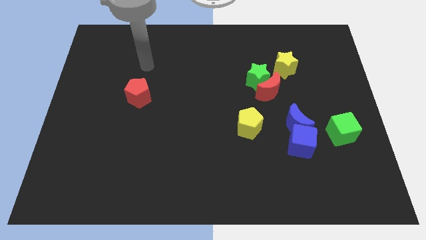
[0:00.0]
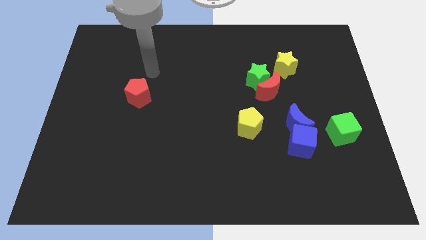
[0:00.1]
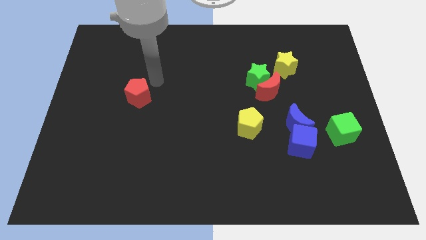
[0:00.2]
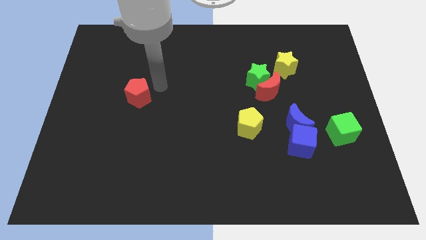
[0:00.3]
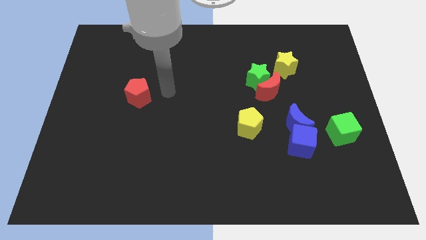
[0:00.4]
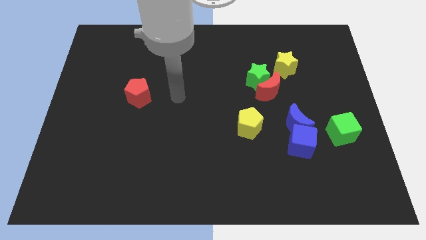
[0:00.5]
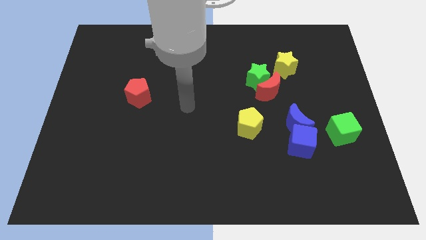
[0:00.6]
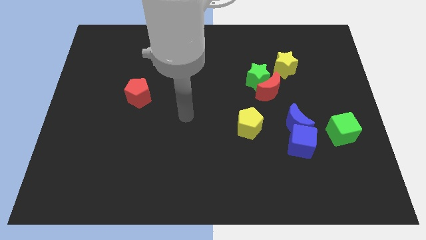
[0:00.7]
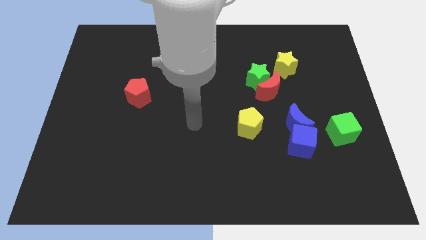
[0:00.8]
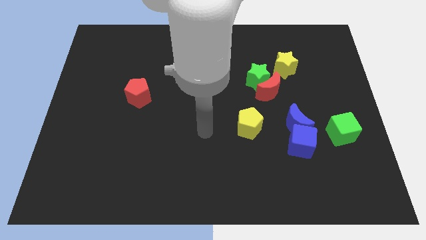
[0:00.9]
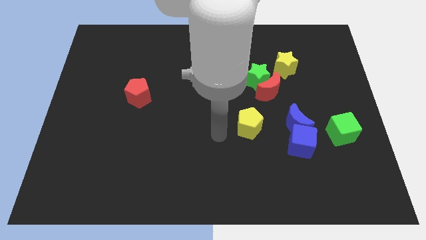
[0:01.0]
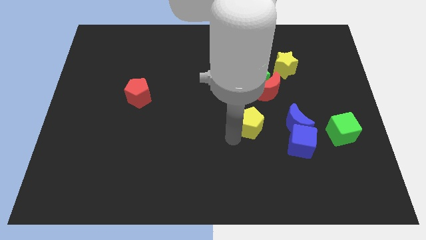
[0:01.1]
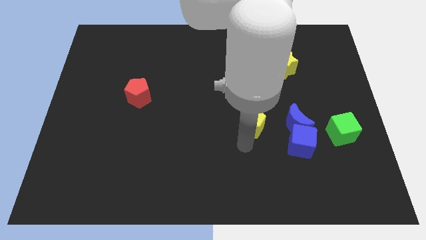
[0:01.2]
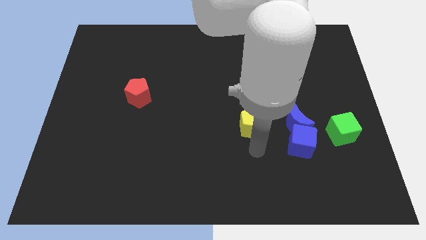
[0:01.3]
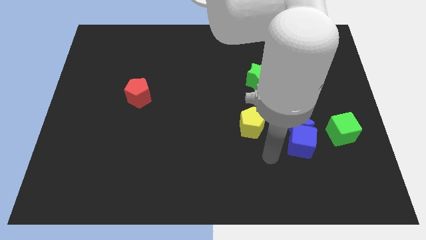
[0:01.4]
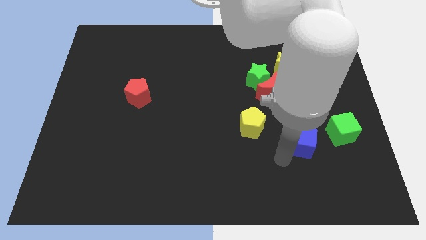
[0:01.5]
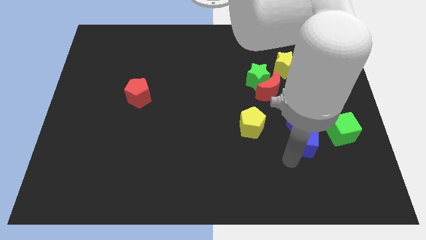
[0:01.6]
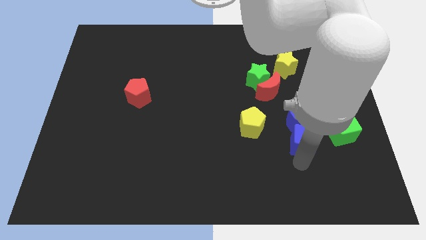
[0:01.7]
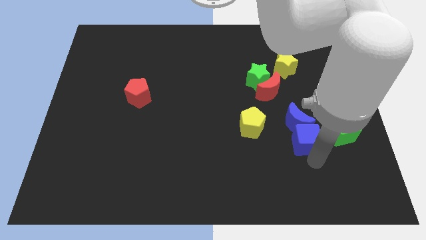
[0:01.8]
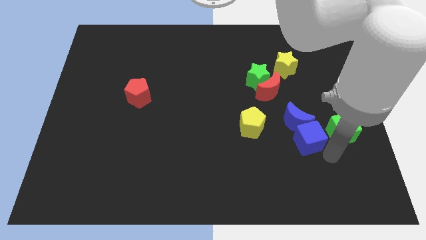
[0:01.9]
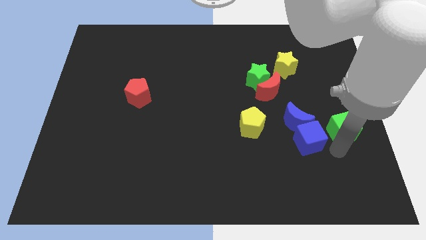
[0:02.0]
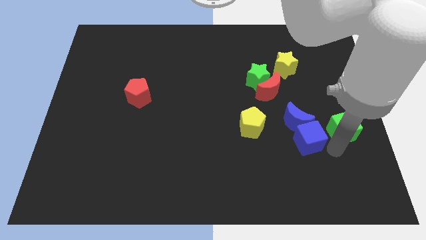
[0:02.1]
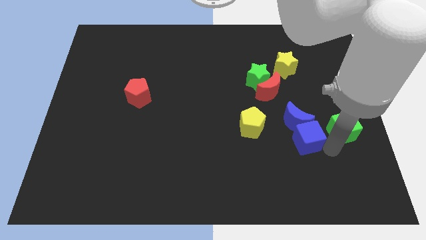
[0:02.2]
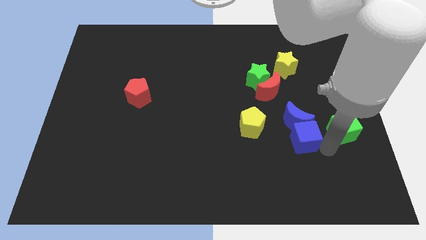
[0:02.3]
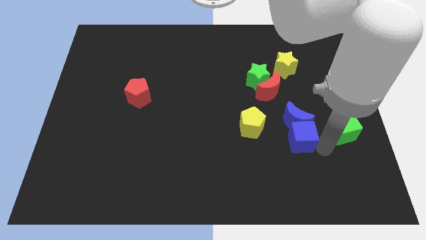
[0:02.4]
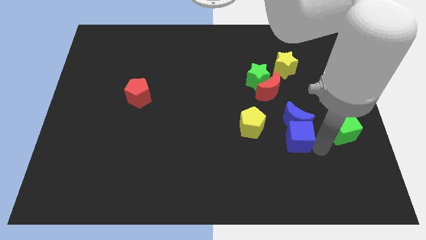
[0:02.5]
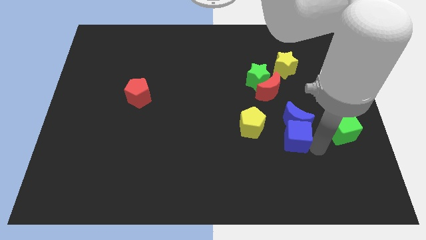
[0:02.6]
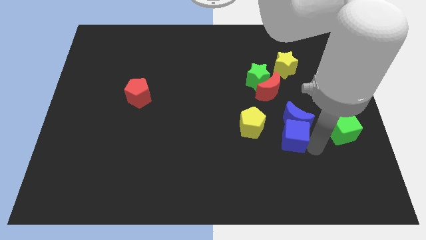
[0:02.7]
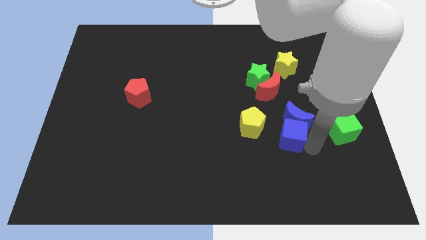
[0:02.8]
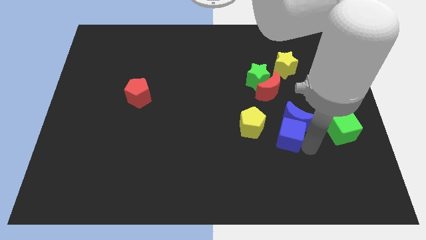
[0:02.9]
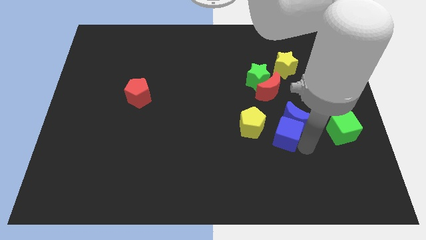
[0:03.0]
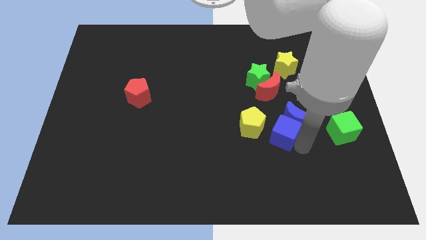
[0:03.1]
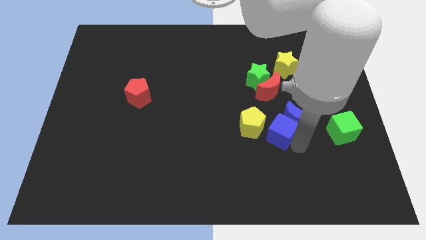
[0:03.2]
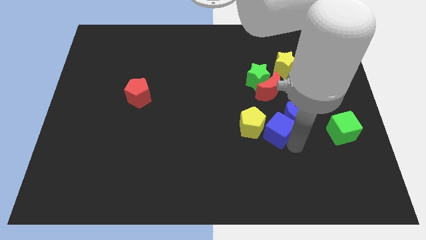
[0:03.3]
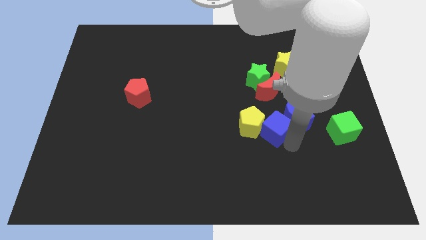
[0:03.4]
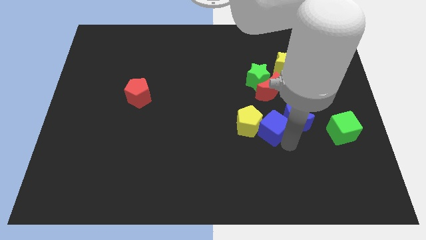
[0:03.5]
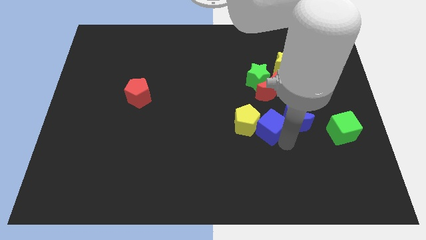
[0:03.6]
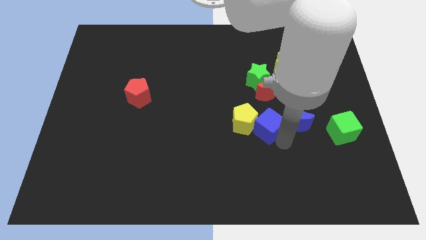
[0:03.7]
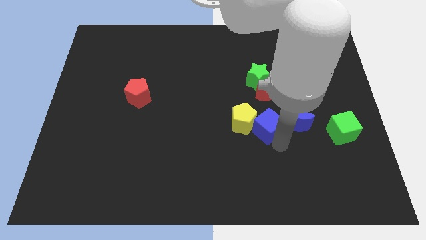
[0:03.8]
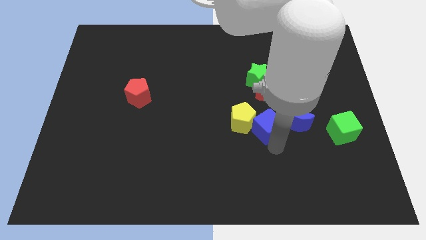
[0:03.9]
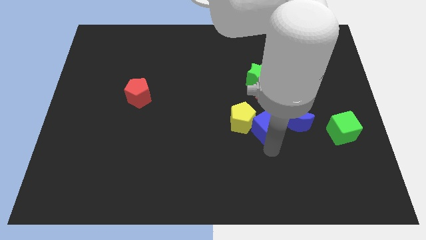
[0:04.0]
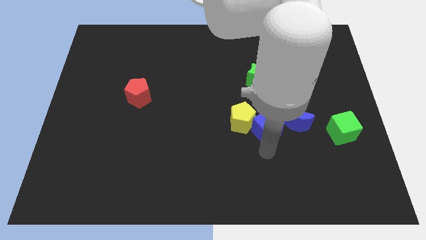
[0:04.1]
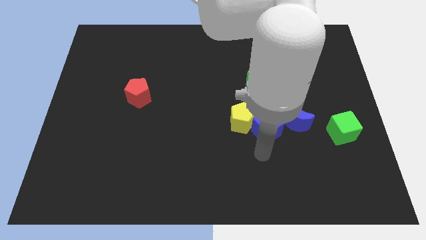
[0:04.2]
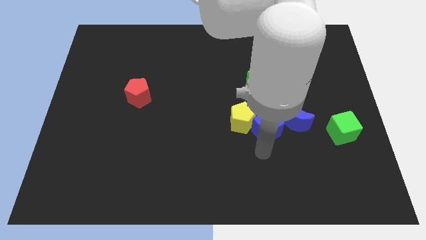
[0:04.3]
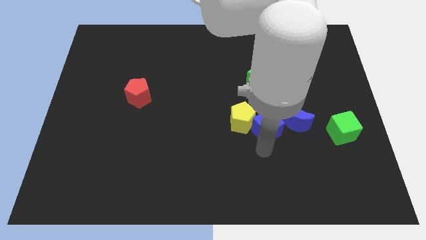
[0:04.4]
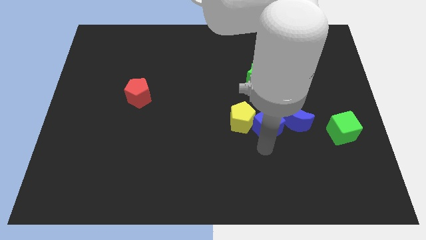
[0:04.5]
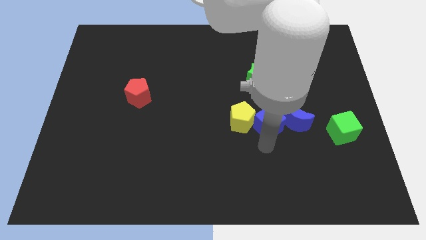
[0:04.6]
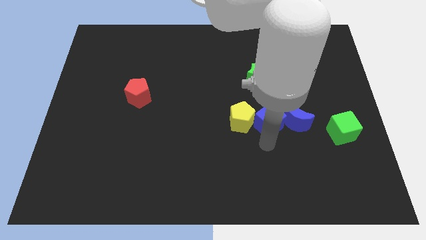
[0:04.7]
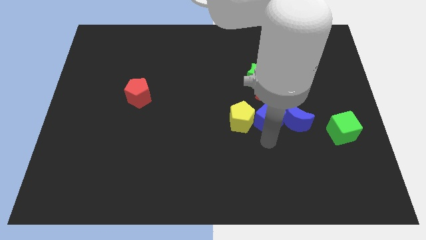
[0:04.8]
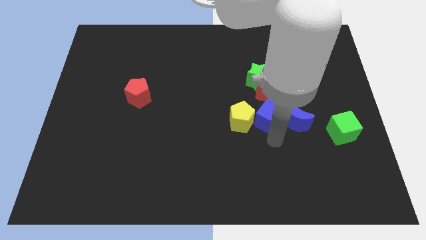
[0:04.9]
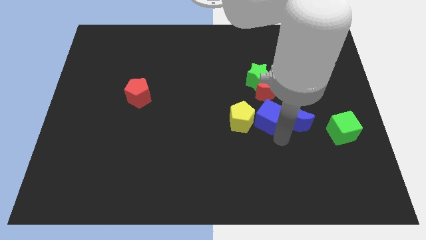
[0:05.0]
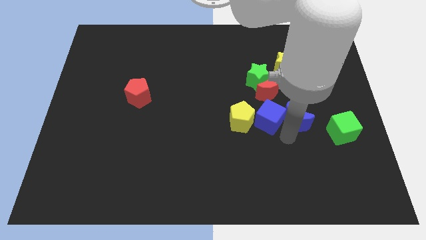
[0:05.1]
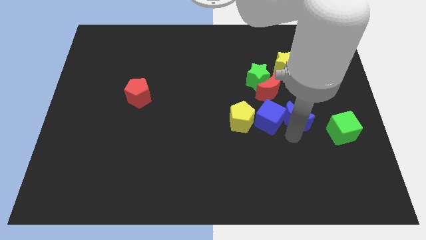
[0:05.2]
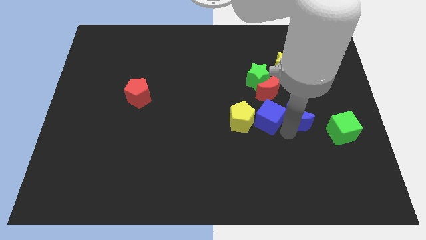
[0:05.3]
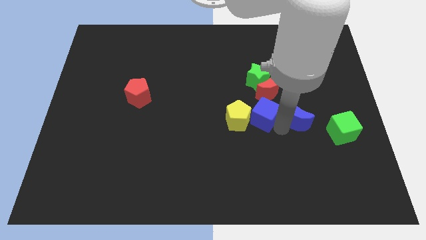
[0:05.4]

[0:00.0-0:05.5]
move the blue cube to the bottom left side of the red moon

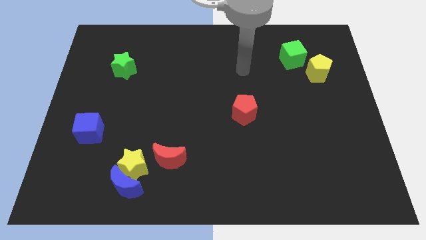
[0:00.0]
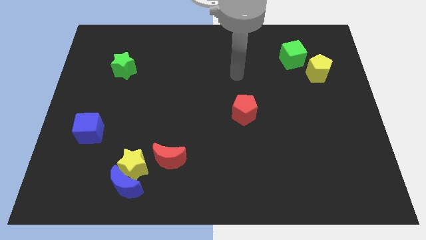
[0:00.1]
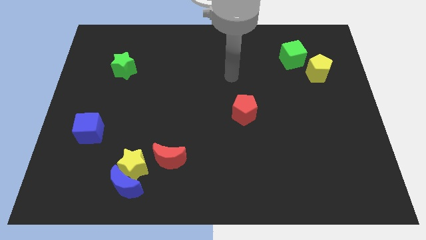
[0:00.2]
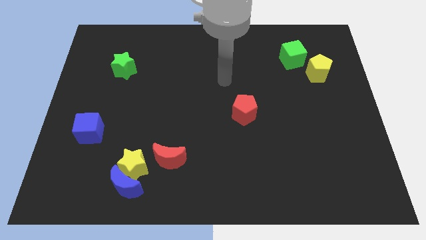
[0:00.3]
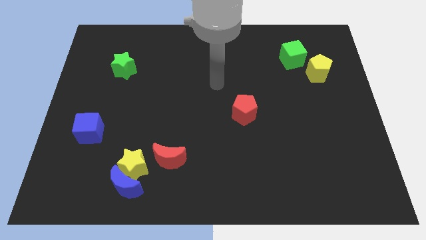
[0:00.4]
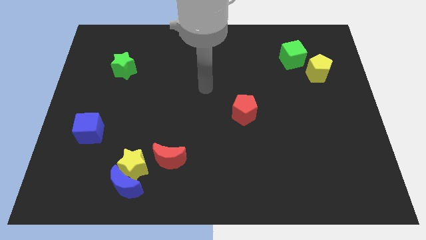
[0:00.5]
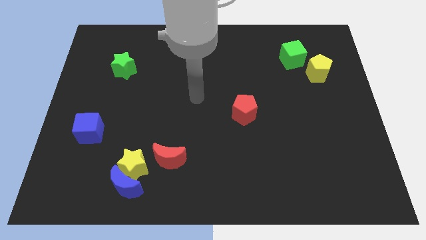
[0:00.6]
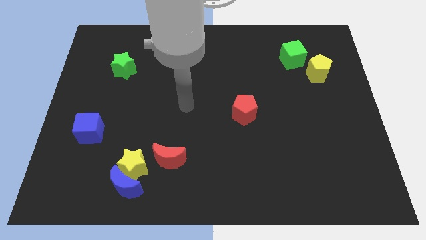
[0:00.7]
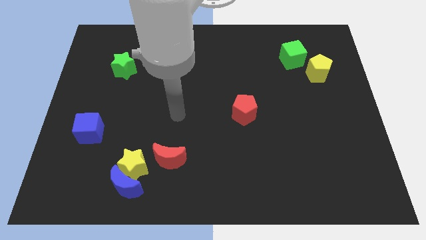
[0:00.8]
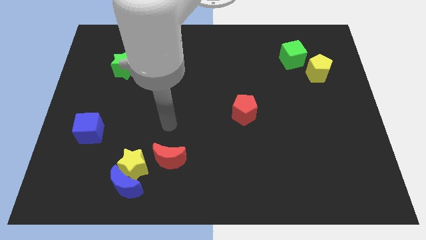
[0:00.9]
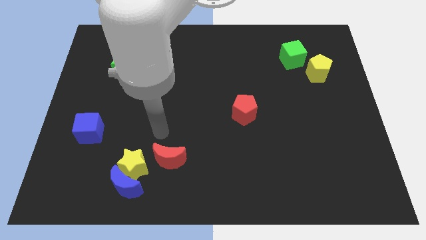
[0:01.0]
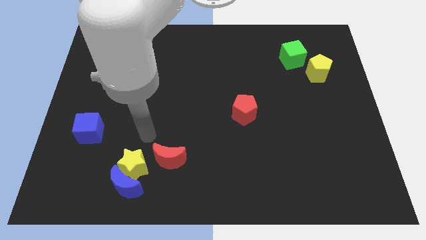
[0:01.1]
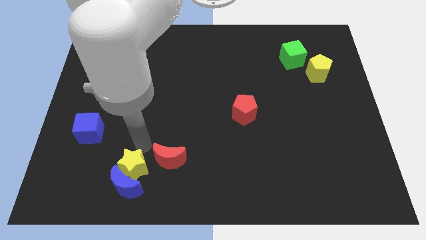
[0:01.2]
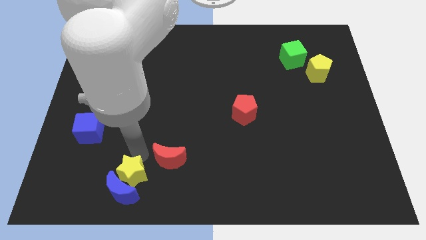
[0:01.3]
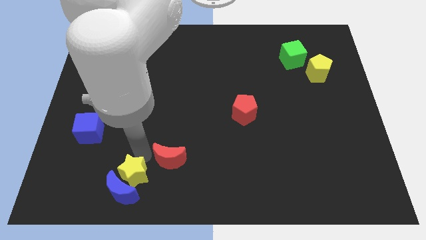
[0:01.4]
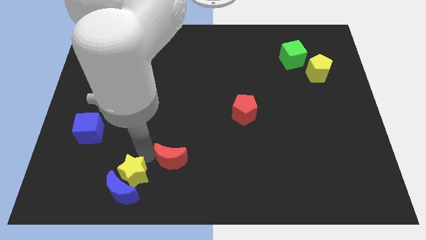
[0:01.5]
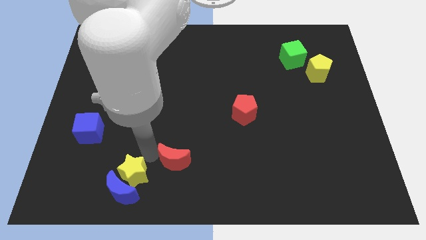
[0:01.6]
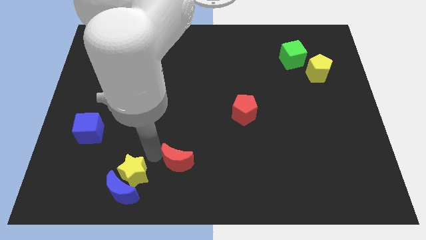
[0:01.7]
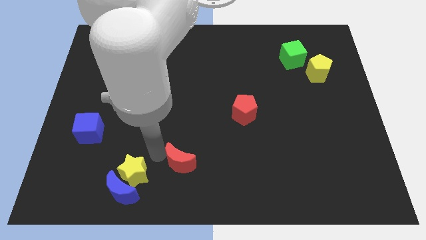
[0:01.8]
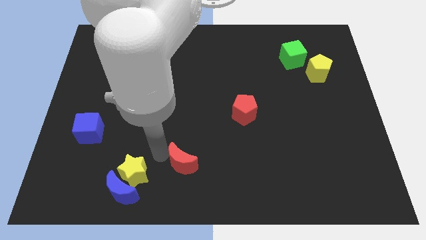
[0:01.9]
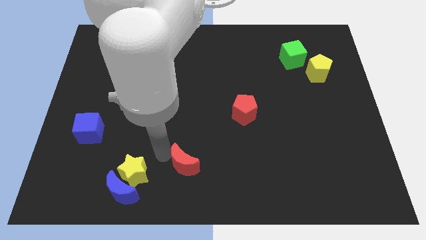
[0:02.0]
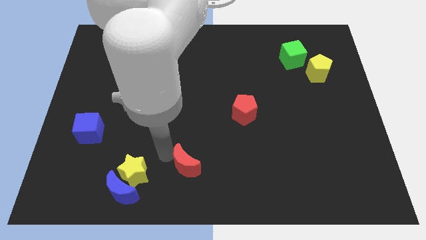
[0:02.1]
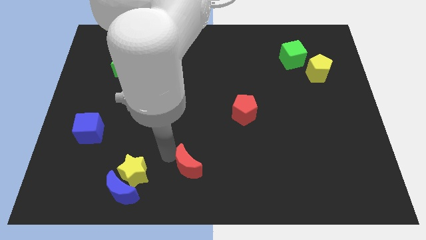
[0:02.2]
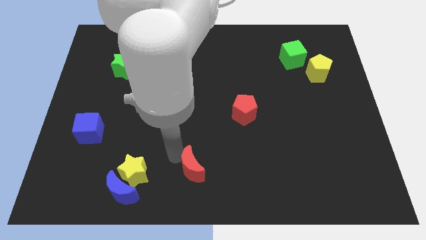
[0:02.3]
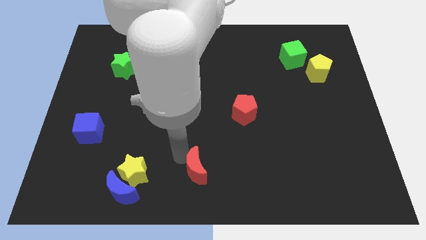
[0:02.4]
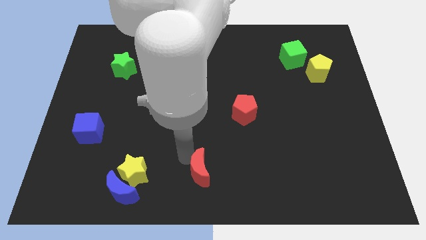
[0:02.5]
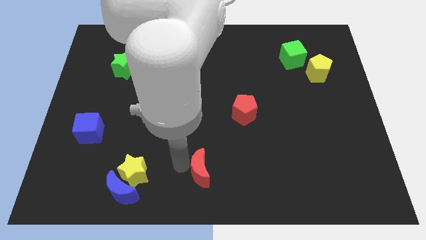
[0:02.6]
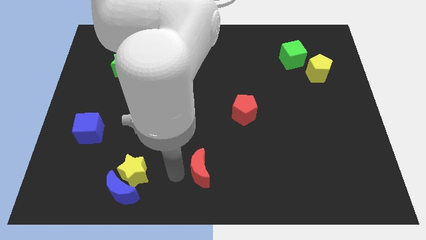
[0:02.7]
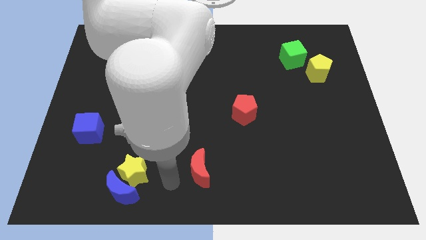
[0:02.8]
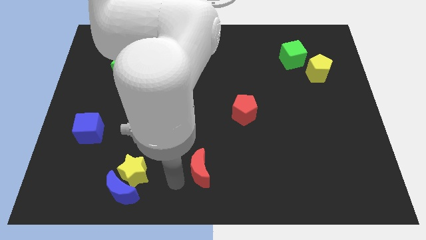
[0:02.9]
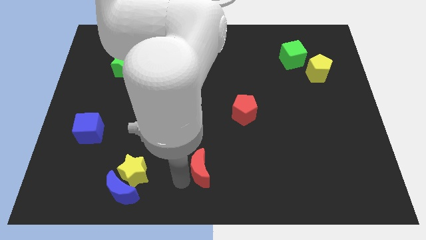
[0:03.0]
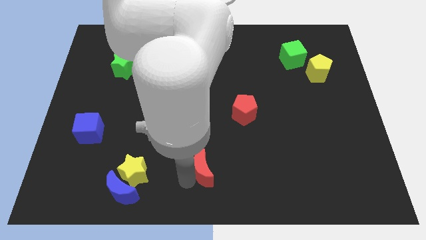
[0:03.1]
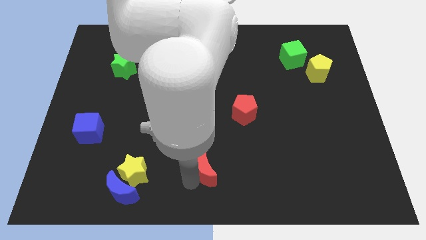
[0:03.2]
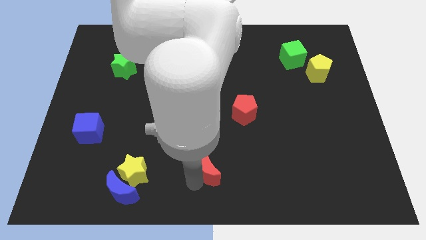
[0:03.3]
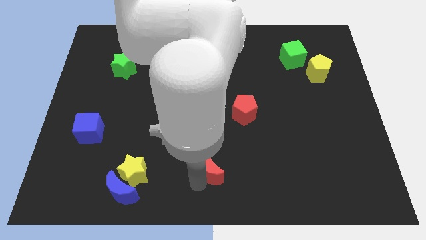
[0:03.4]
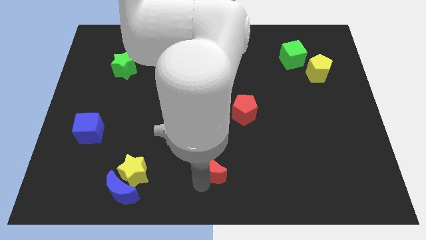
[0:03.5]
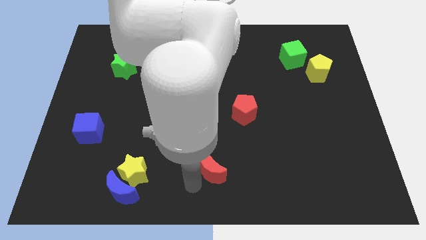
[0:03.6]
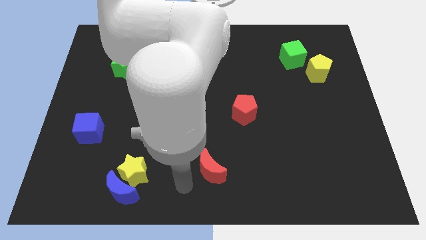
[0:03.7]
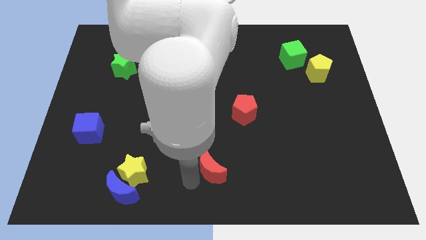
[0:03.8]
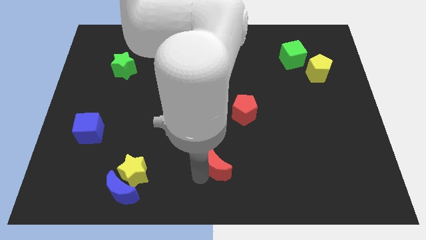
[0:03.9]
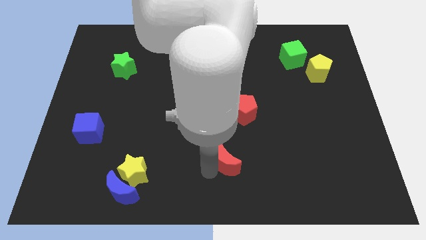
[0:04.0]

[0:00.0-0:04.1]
put the red moon to the bottom side of the red pentagon
